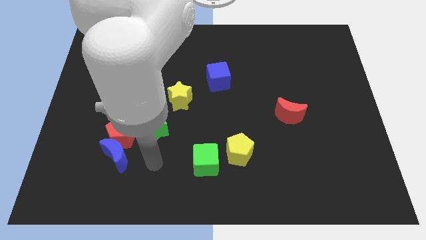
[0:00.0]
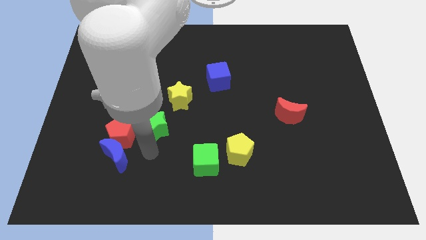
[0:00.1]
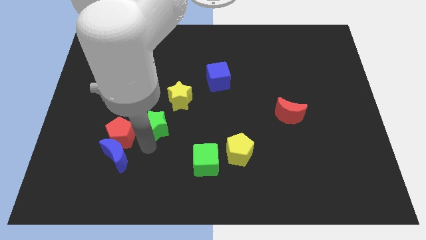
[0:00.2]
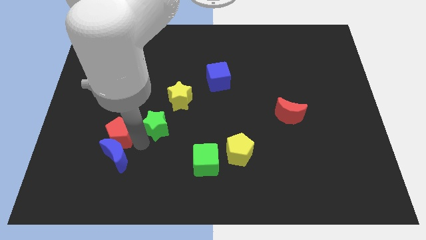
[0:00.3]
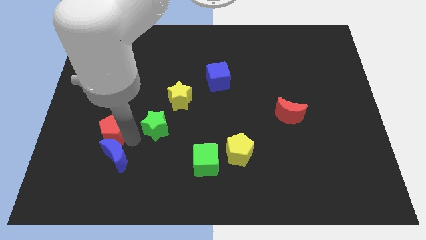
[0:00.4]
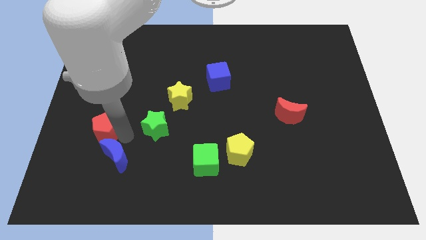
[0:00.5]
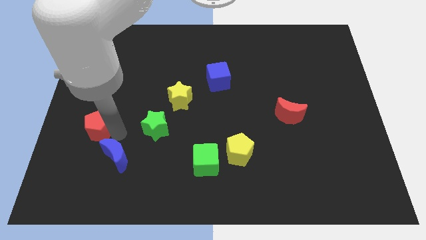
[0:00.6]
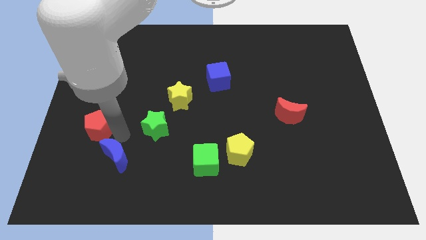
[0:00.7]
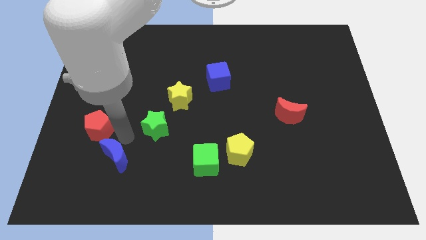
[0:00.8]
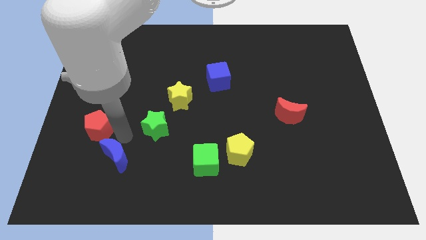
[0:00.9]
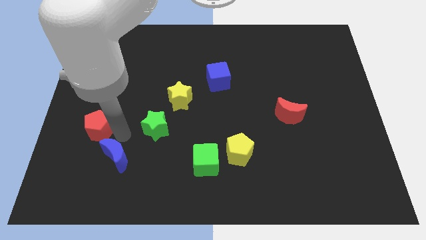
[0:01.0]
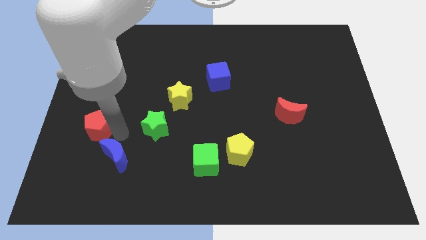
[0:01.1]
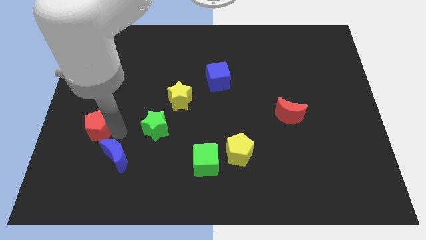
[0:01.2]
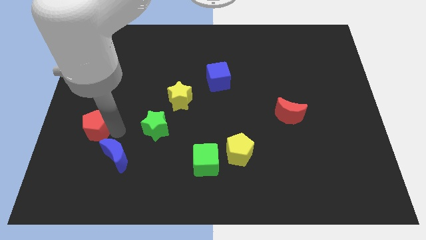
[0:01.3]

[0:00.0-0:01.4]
separate the red pentagon from the blue moon and green star

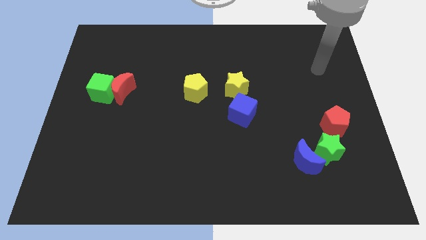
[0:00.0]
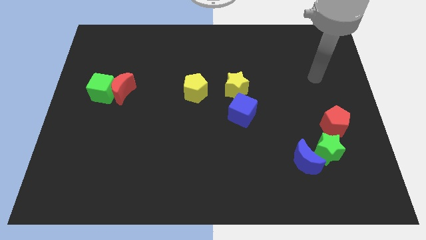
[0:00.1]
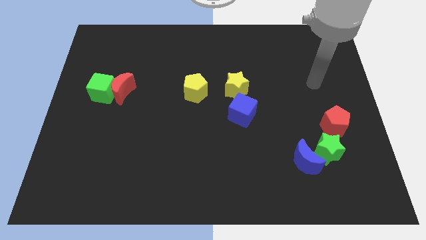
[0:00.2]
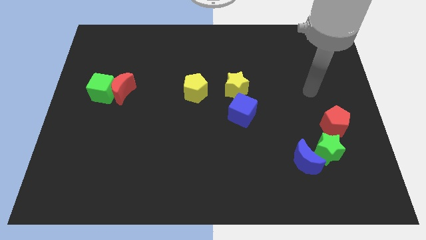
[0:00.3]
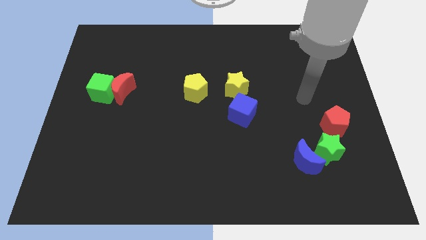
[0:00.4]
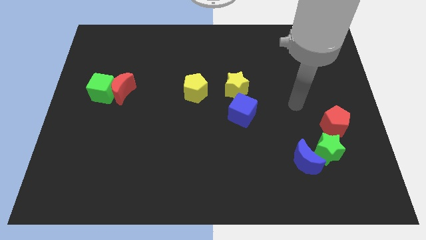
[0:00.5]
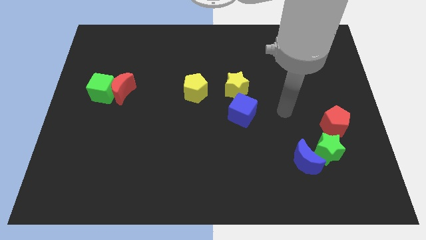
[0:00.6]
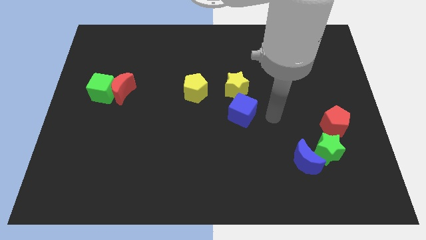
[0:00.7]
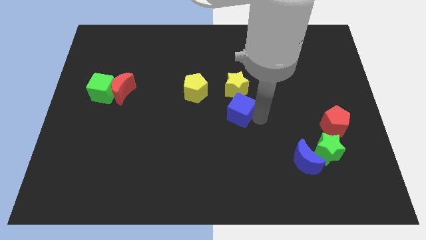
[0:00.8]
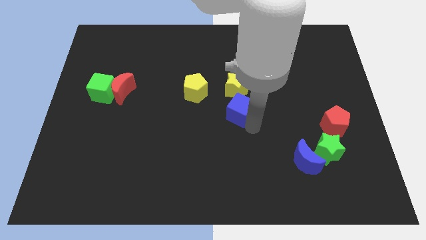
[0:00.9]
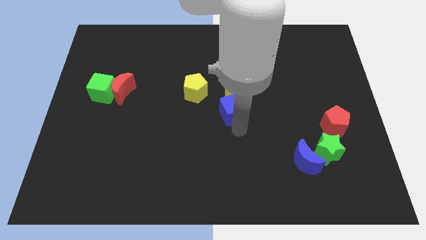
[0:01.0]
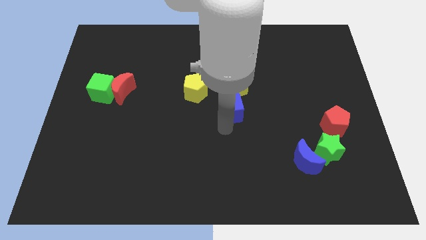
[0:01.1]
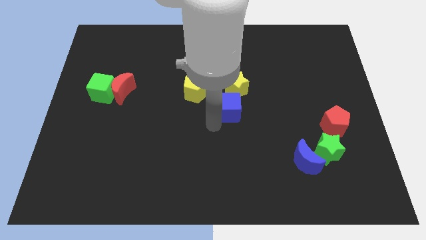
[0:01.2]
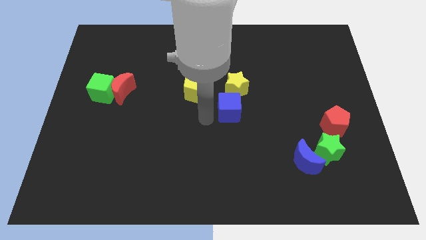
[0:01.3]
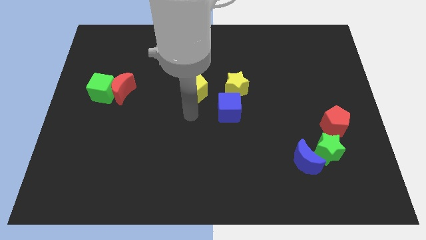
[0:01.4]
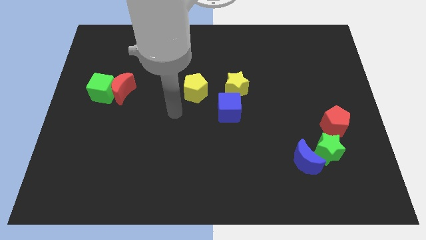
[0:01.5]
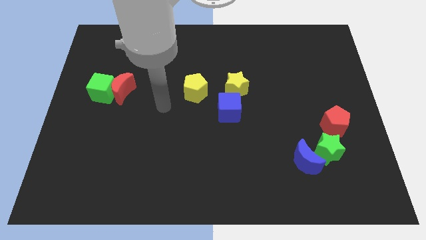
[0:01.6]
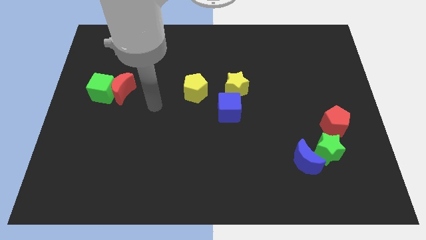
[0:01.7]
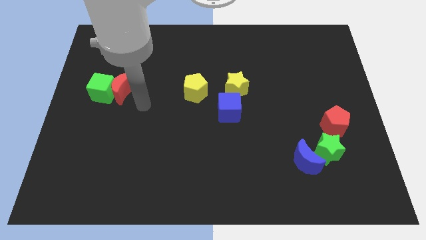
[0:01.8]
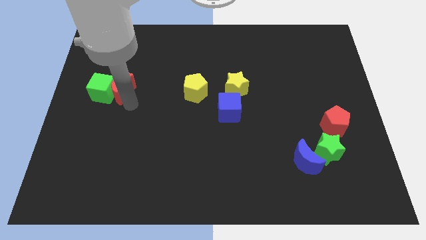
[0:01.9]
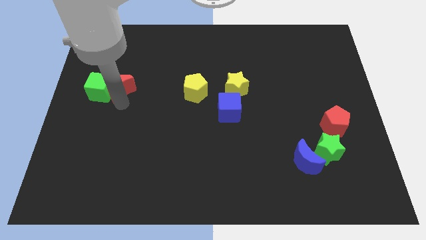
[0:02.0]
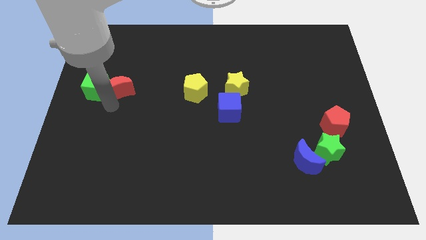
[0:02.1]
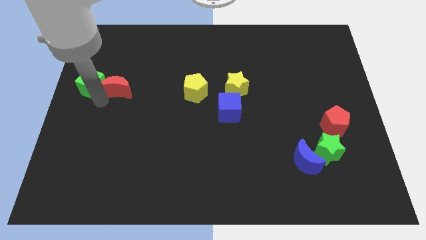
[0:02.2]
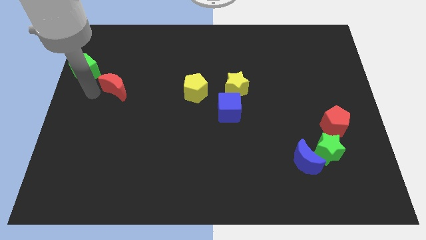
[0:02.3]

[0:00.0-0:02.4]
pull the red moon apart from the green cube

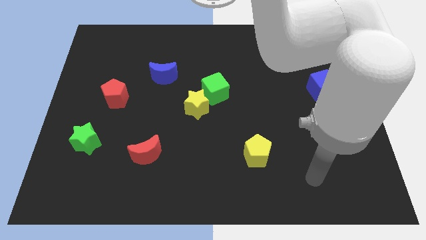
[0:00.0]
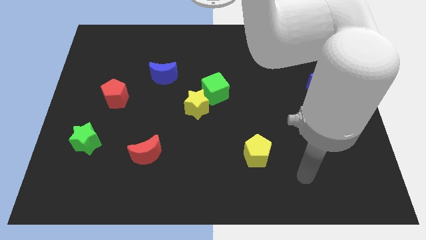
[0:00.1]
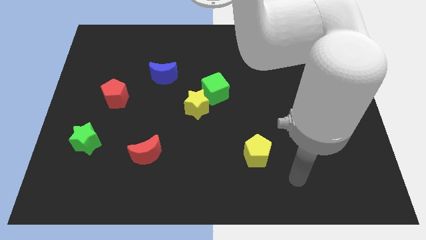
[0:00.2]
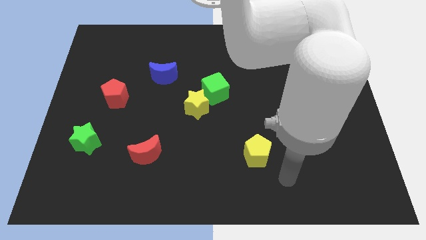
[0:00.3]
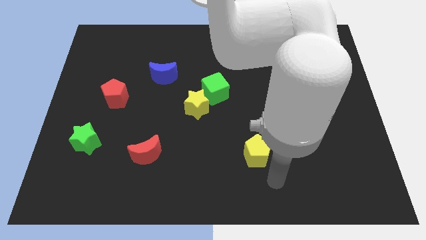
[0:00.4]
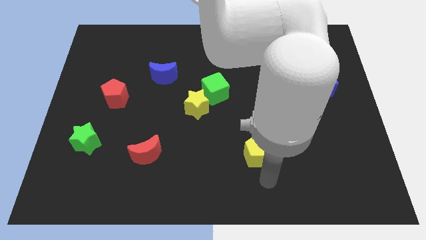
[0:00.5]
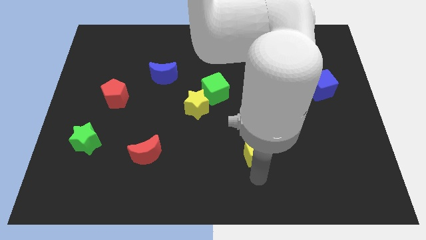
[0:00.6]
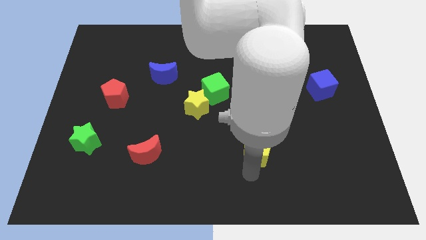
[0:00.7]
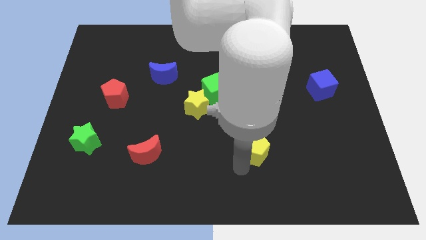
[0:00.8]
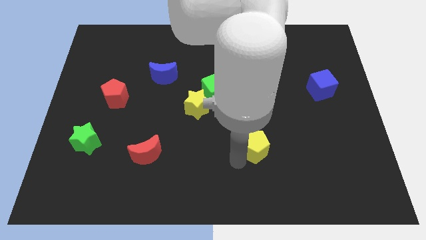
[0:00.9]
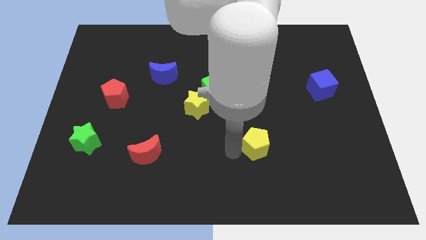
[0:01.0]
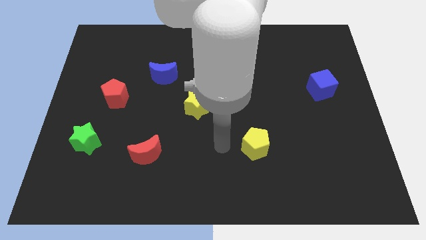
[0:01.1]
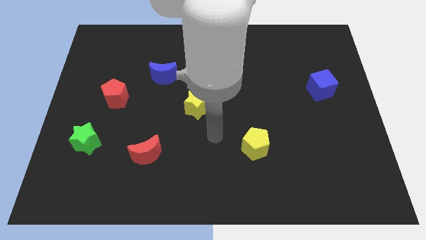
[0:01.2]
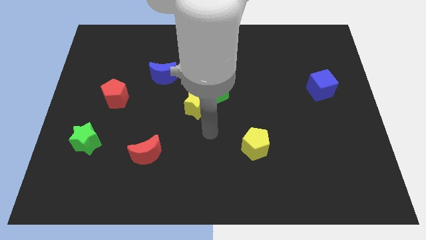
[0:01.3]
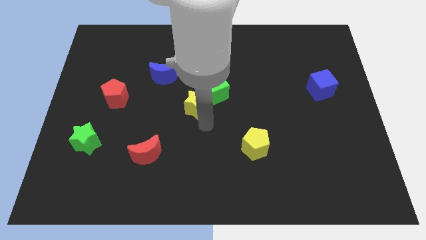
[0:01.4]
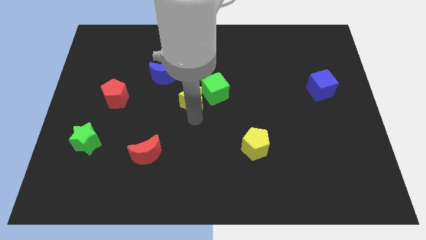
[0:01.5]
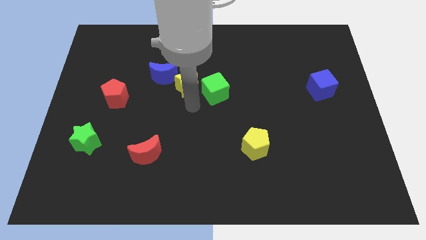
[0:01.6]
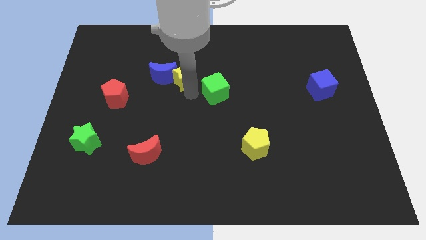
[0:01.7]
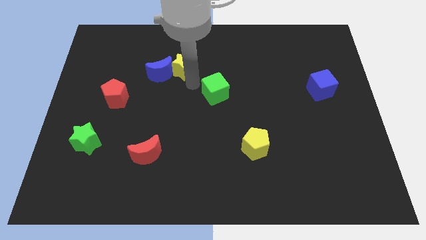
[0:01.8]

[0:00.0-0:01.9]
move the green cube away from the yellow star

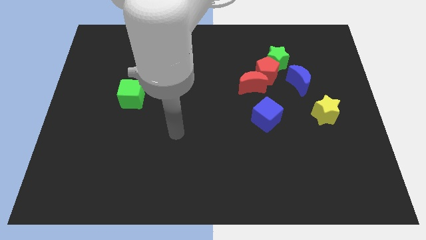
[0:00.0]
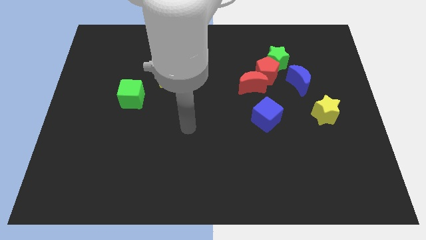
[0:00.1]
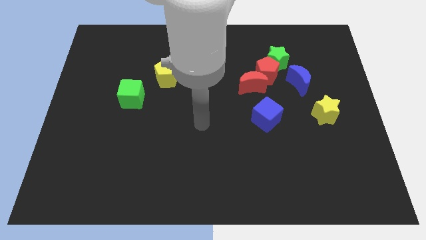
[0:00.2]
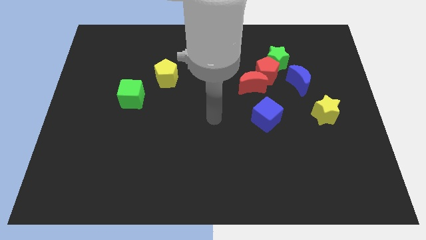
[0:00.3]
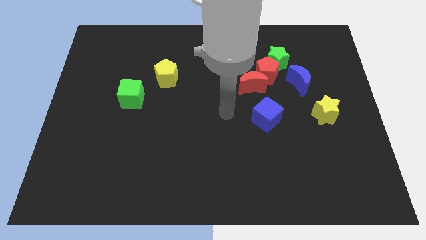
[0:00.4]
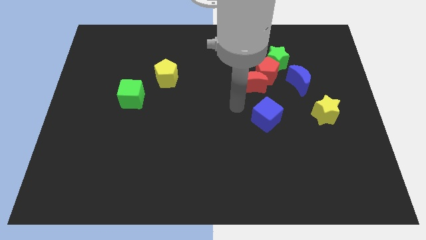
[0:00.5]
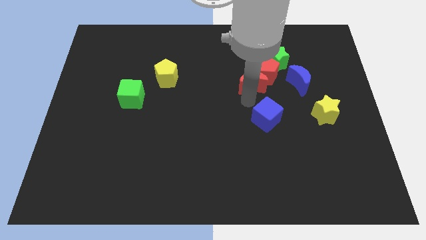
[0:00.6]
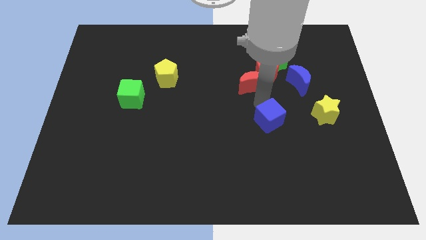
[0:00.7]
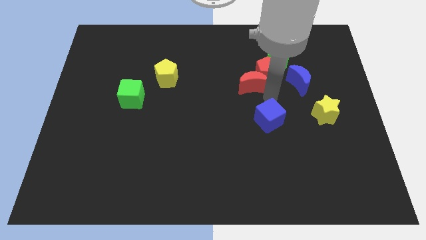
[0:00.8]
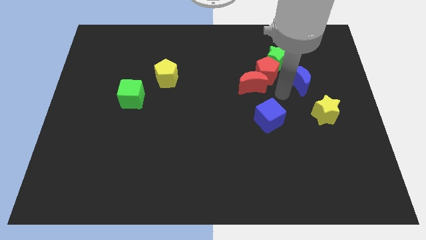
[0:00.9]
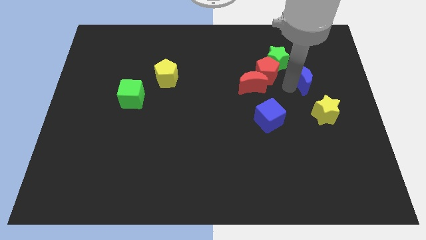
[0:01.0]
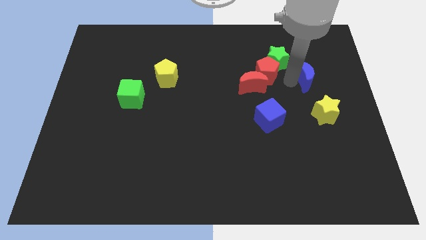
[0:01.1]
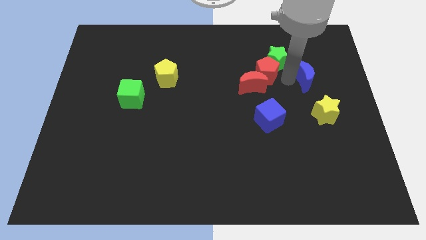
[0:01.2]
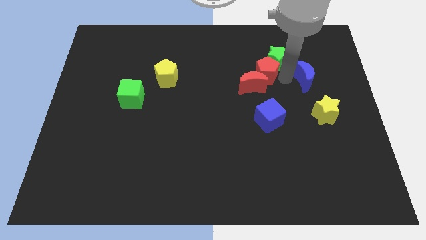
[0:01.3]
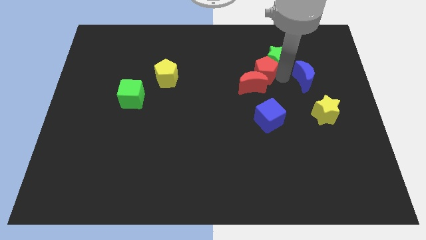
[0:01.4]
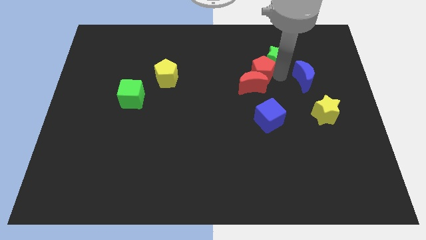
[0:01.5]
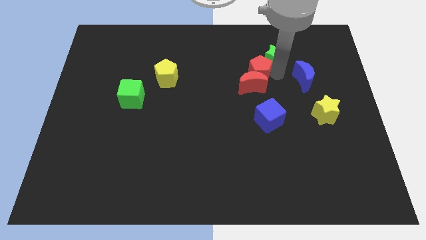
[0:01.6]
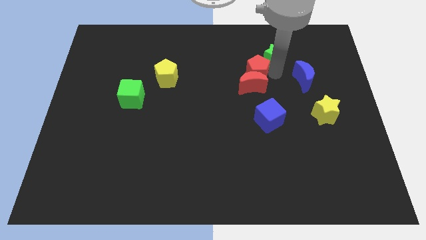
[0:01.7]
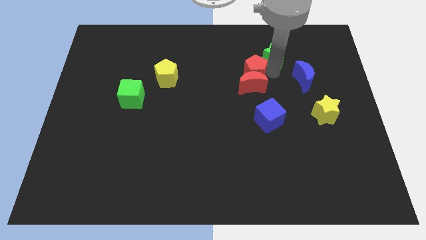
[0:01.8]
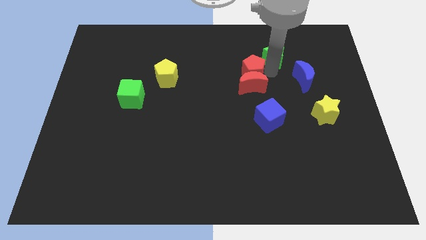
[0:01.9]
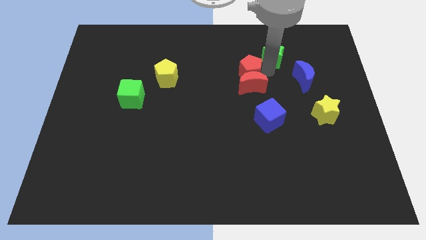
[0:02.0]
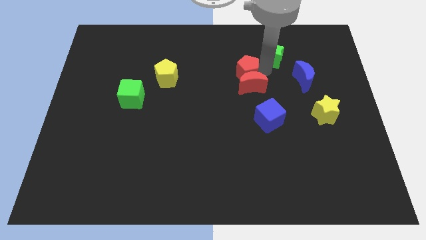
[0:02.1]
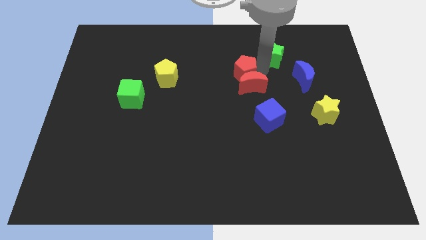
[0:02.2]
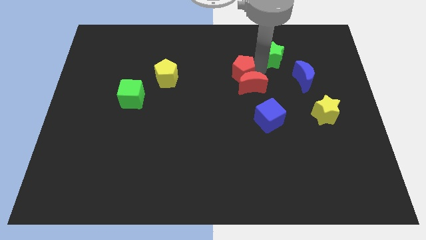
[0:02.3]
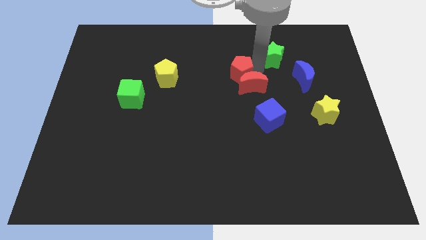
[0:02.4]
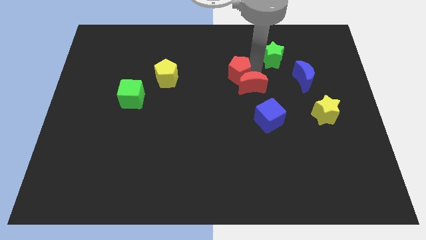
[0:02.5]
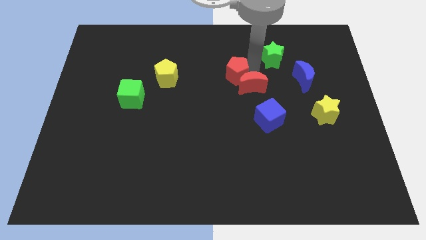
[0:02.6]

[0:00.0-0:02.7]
separate the red pentagon from the clump

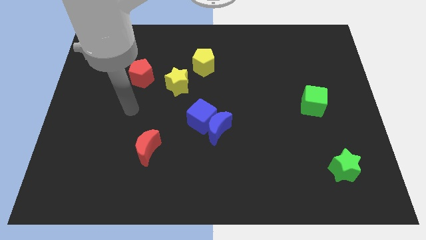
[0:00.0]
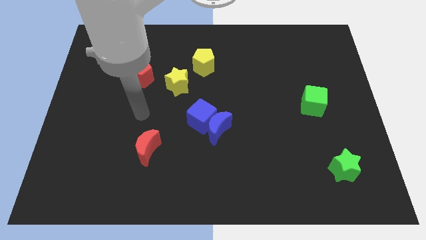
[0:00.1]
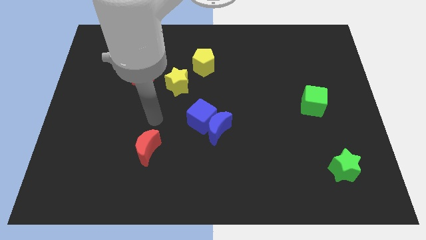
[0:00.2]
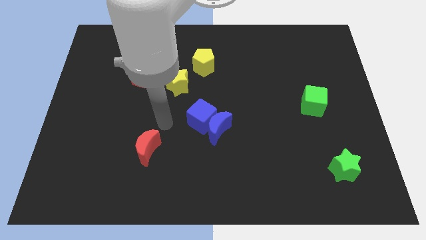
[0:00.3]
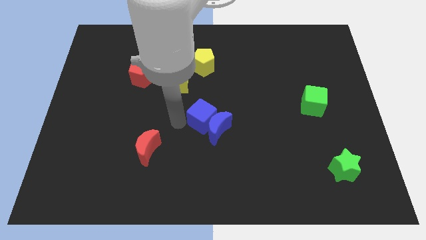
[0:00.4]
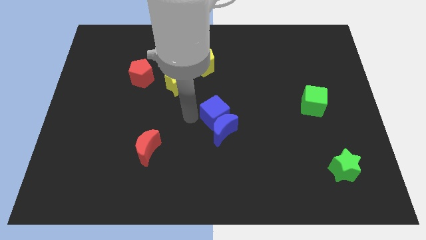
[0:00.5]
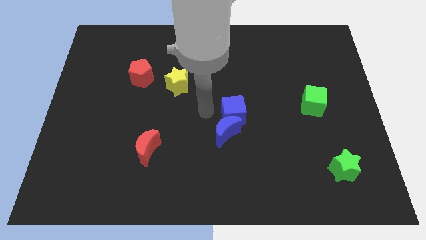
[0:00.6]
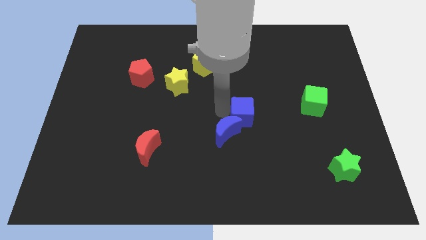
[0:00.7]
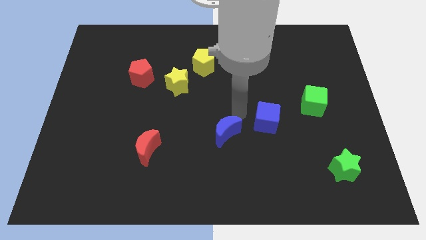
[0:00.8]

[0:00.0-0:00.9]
separate the blue moon from the blue cube
